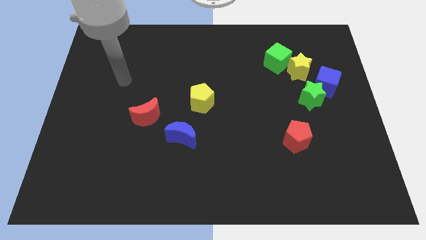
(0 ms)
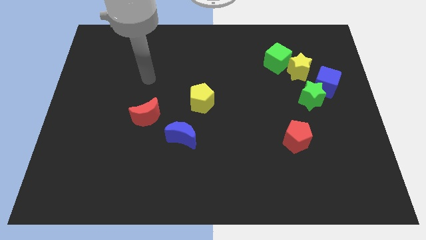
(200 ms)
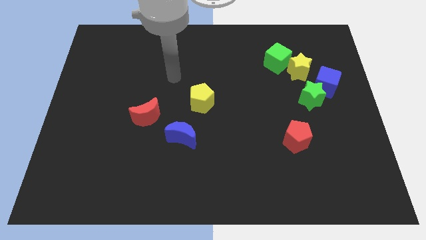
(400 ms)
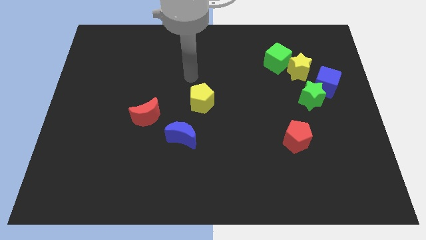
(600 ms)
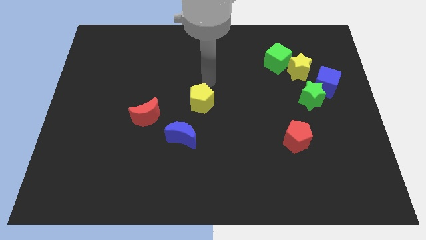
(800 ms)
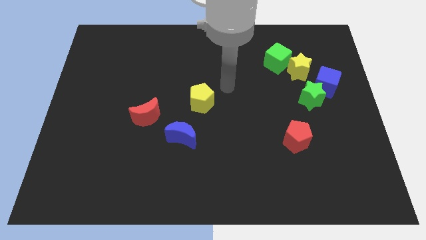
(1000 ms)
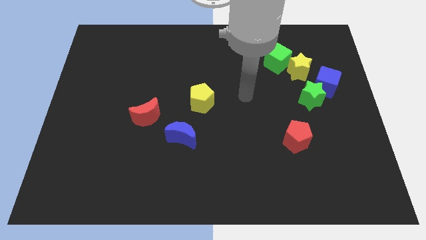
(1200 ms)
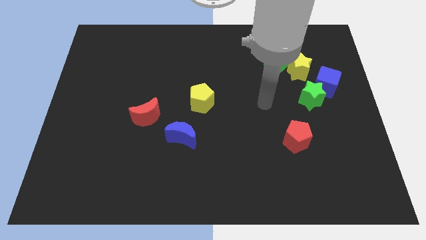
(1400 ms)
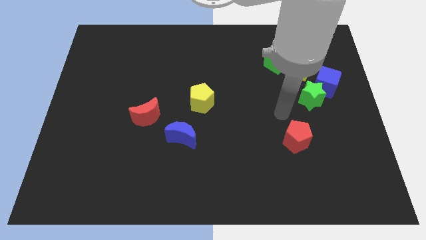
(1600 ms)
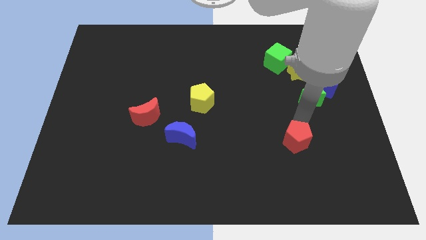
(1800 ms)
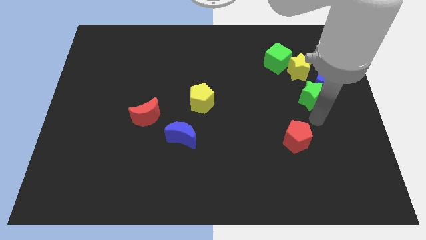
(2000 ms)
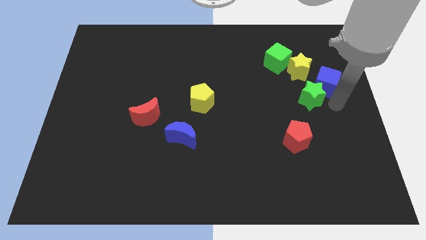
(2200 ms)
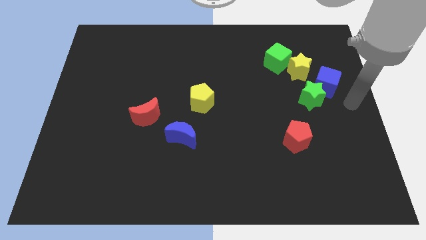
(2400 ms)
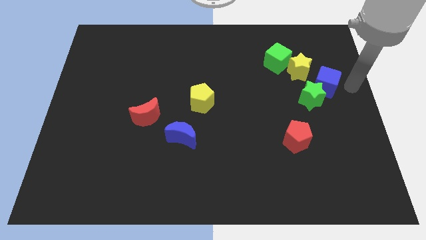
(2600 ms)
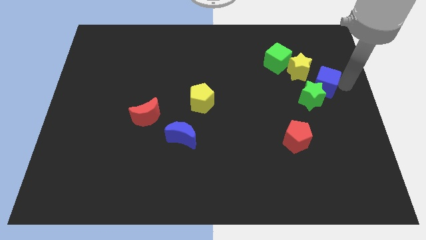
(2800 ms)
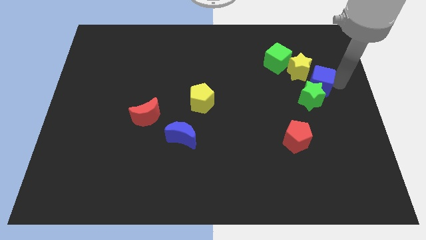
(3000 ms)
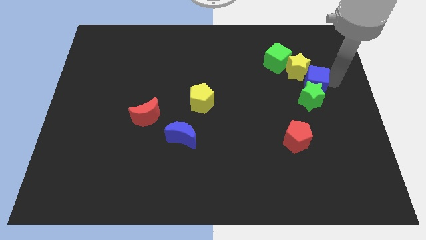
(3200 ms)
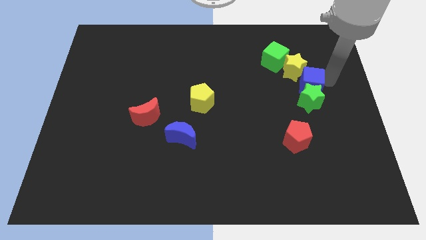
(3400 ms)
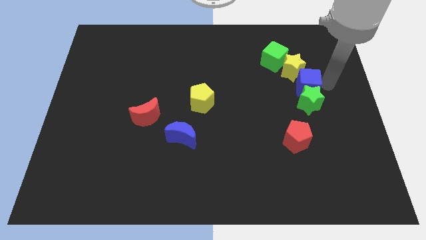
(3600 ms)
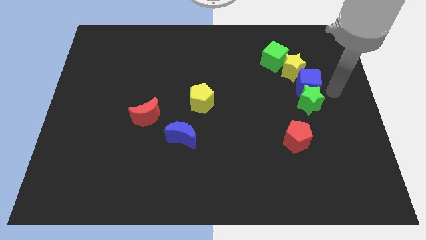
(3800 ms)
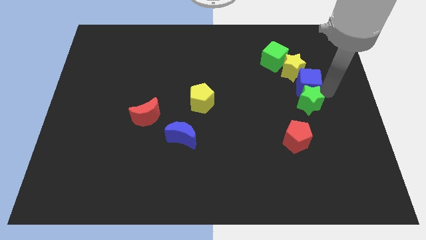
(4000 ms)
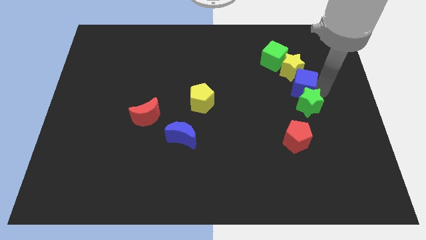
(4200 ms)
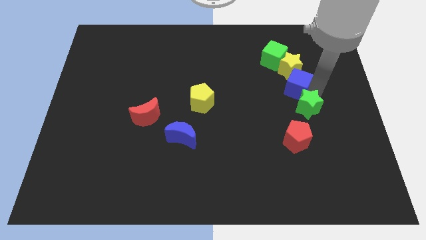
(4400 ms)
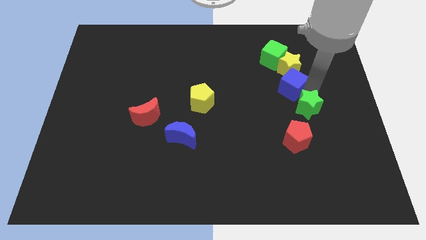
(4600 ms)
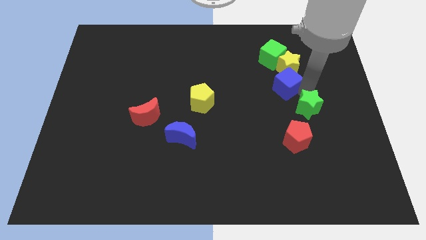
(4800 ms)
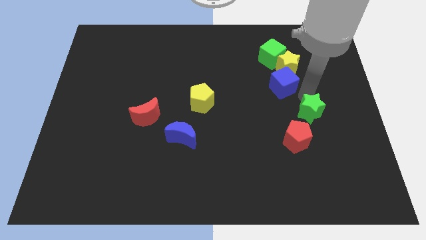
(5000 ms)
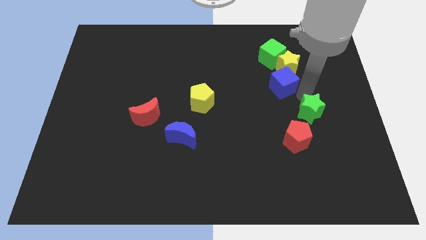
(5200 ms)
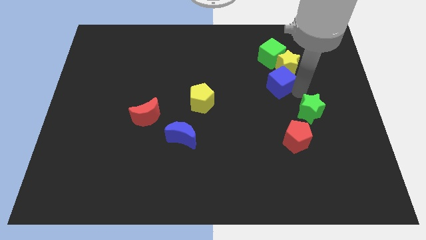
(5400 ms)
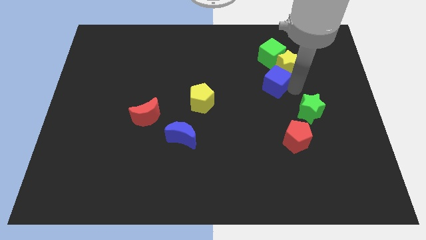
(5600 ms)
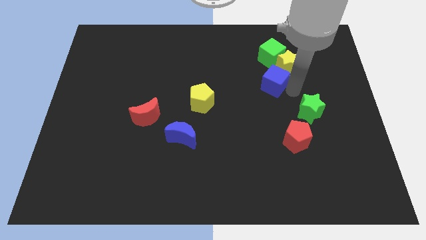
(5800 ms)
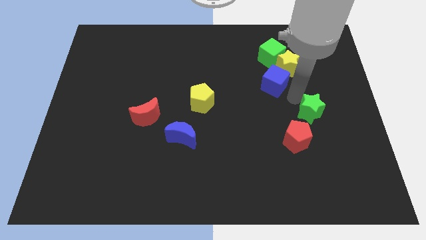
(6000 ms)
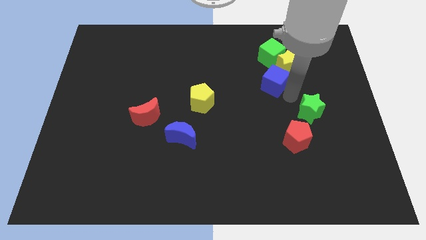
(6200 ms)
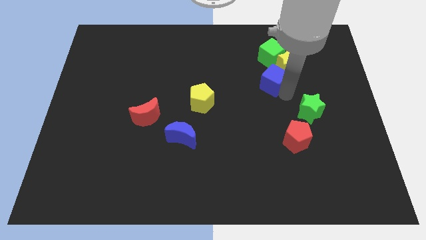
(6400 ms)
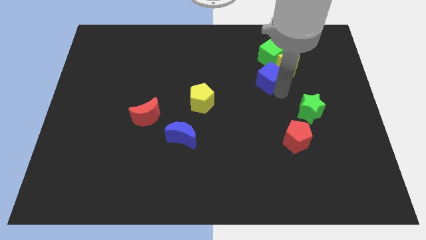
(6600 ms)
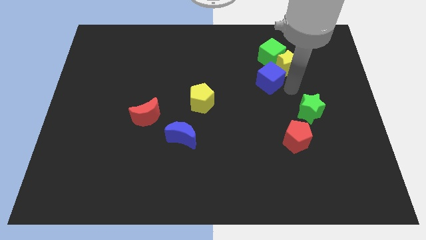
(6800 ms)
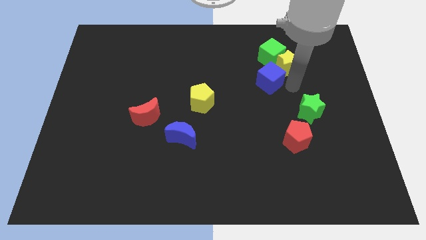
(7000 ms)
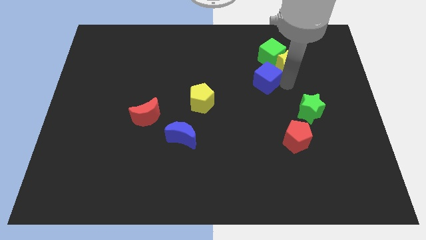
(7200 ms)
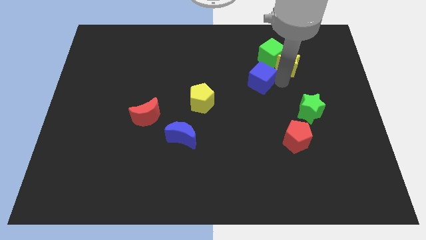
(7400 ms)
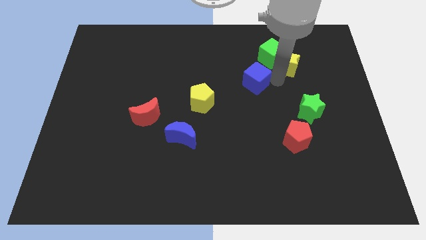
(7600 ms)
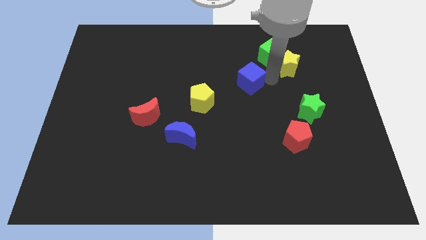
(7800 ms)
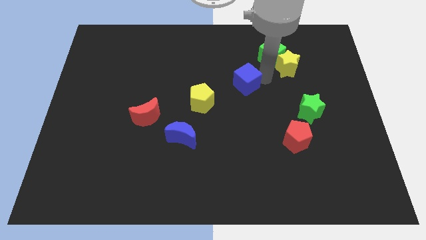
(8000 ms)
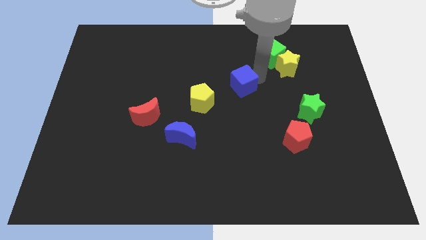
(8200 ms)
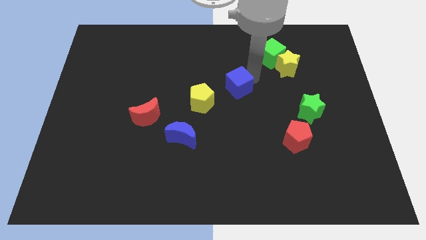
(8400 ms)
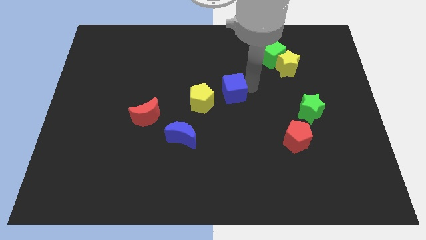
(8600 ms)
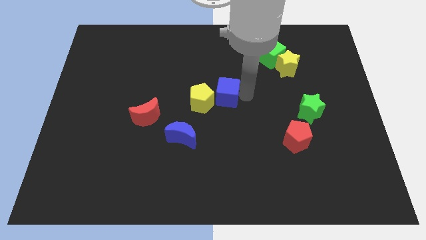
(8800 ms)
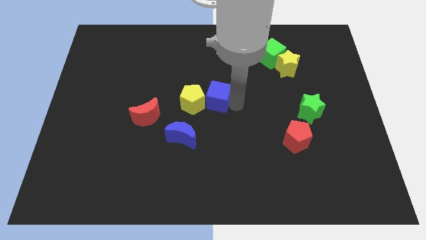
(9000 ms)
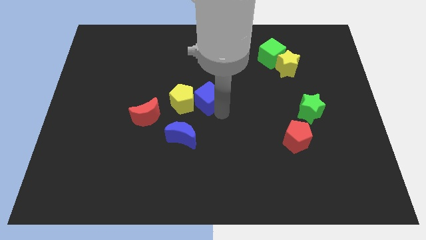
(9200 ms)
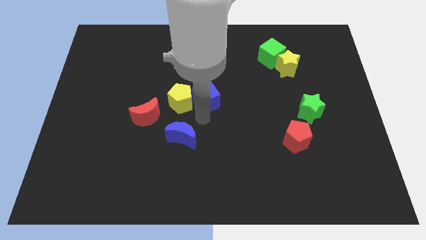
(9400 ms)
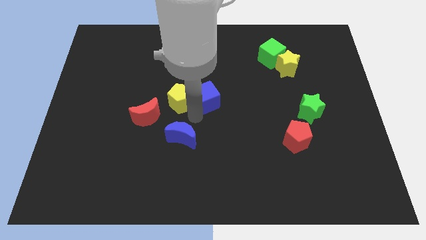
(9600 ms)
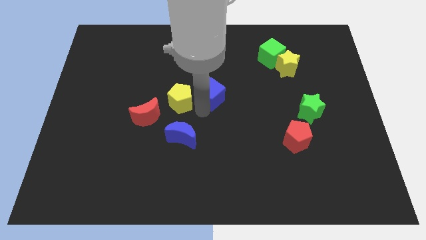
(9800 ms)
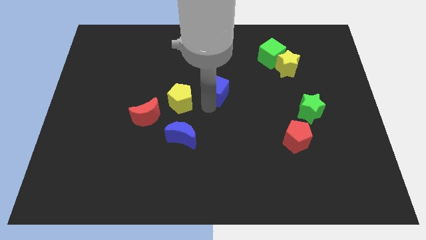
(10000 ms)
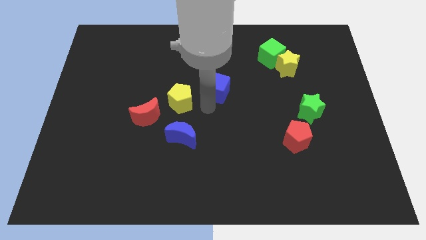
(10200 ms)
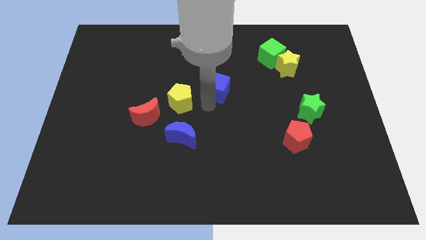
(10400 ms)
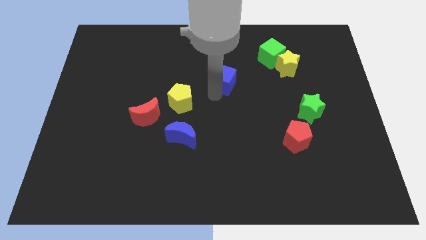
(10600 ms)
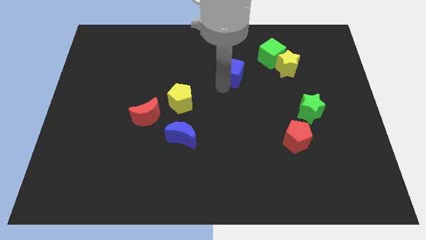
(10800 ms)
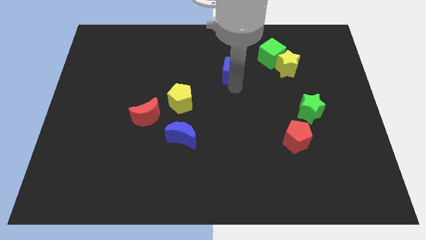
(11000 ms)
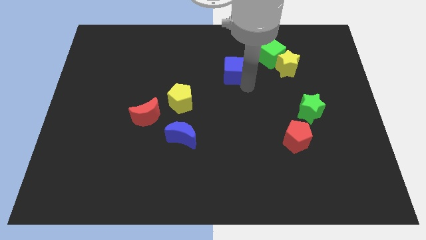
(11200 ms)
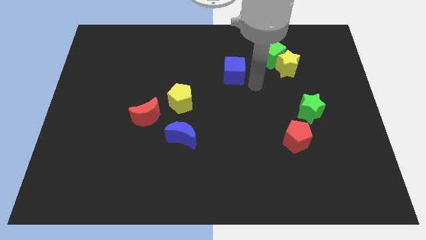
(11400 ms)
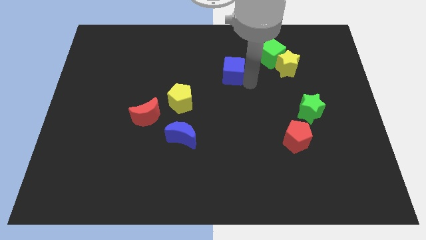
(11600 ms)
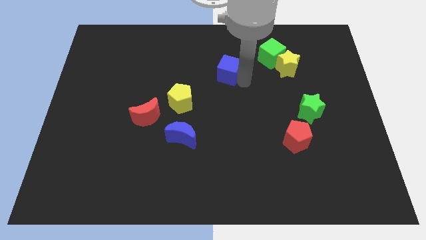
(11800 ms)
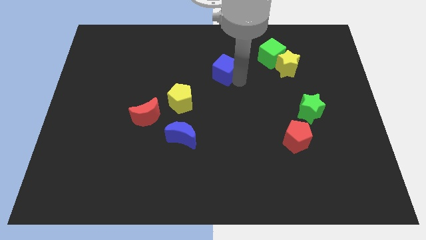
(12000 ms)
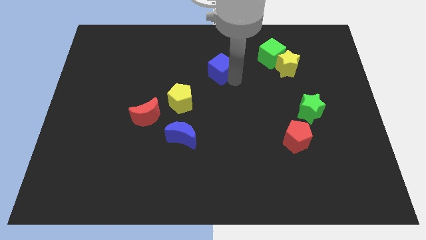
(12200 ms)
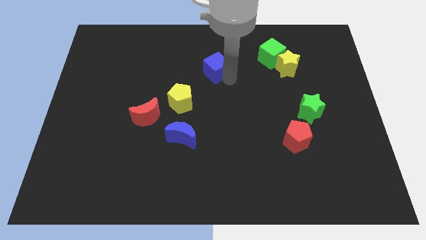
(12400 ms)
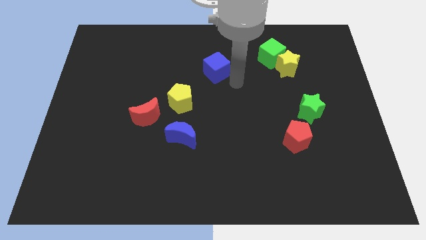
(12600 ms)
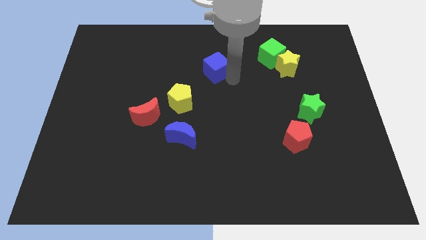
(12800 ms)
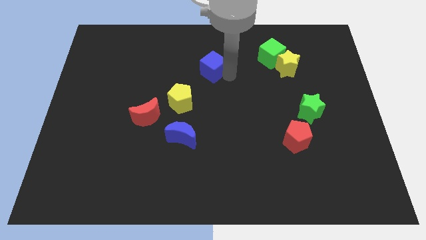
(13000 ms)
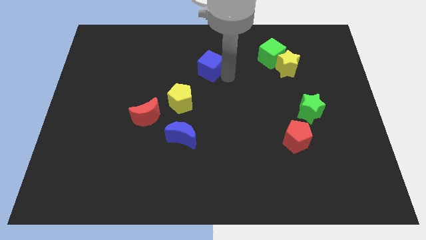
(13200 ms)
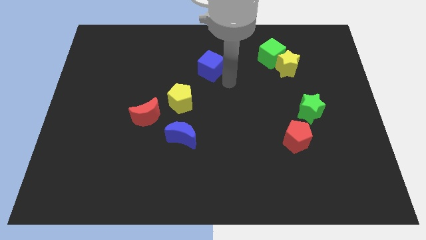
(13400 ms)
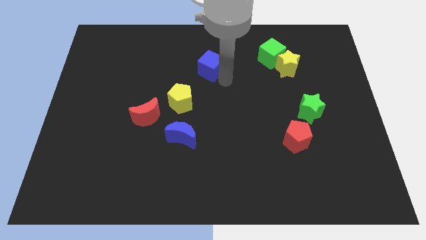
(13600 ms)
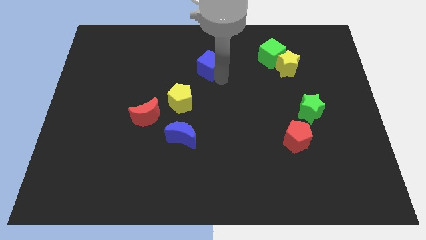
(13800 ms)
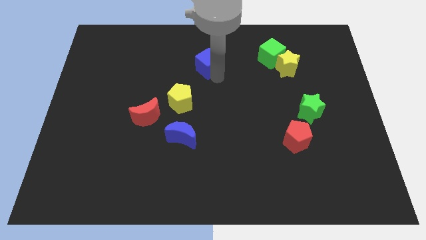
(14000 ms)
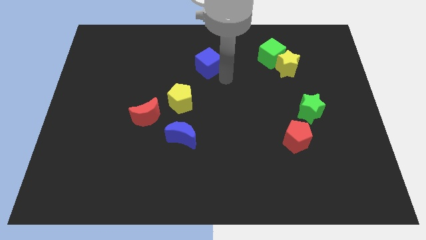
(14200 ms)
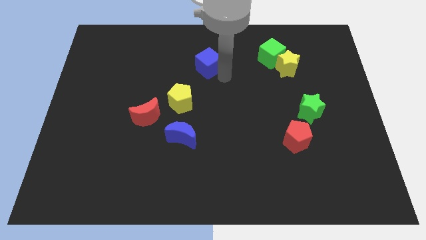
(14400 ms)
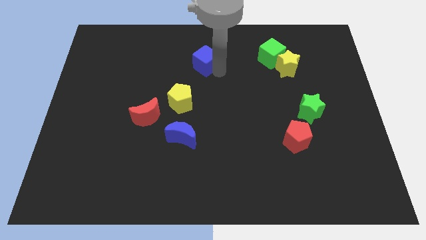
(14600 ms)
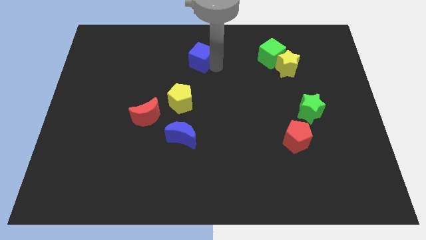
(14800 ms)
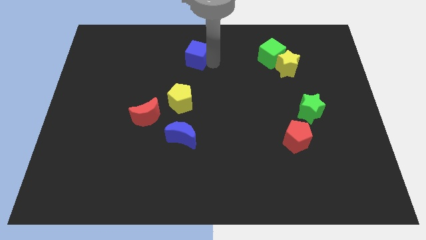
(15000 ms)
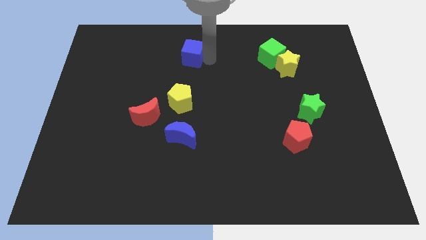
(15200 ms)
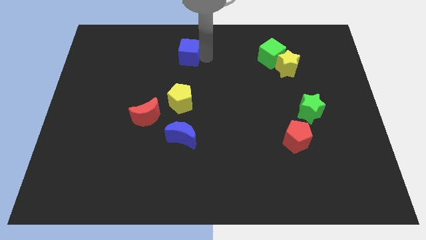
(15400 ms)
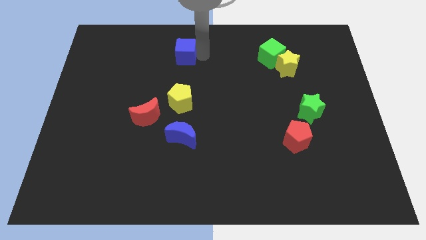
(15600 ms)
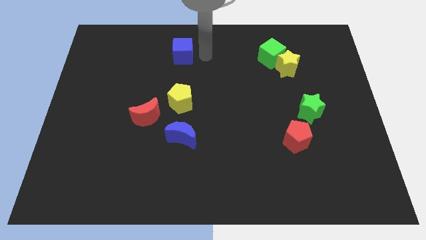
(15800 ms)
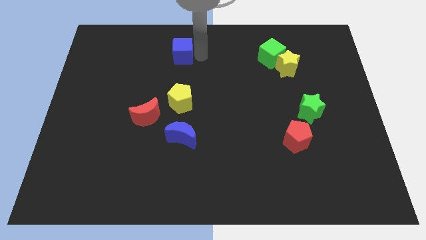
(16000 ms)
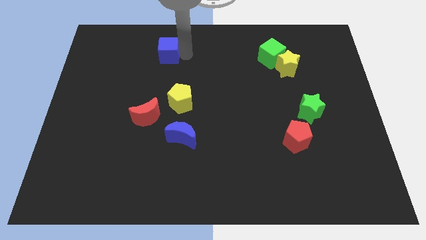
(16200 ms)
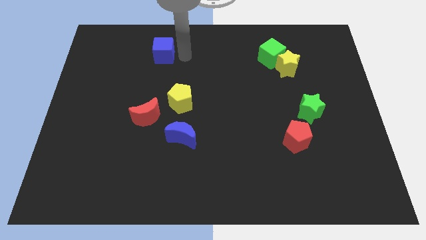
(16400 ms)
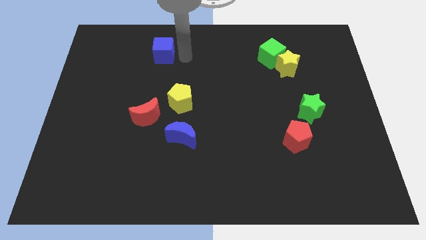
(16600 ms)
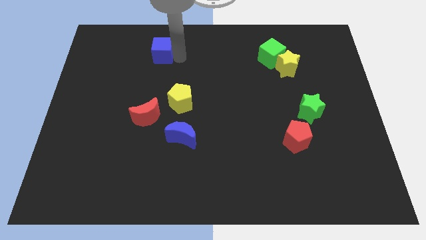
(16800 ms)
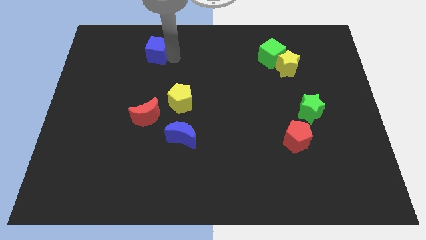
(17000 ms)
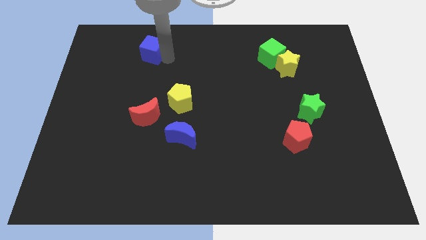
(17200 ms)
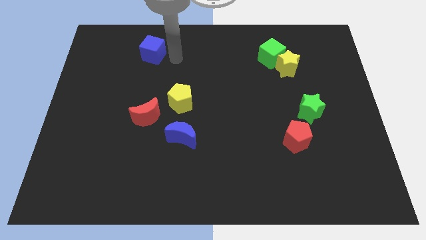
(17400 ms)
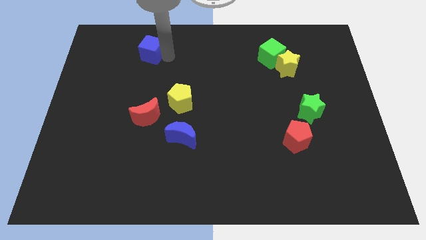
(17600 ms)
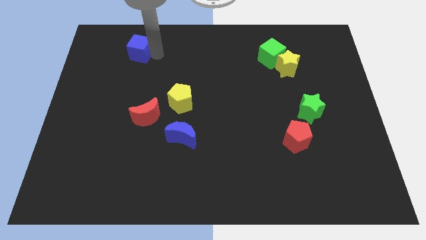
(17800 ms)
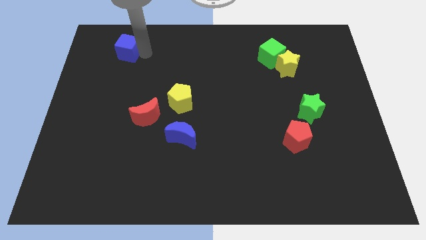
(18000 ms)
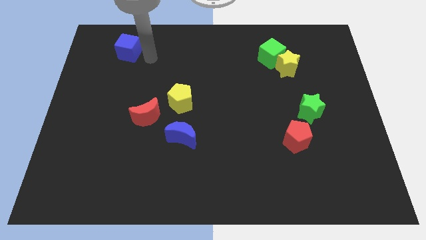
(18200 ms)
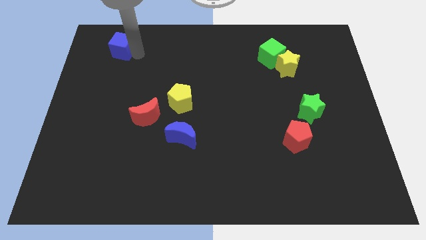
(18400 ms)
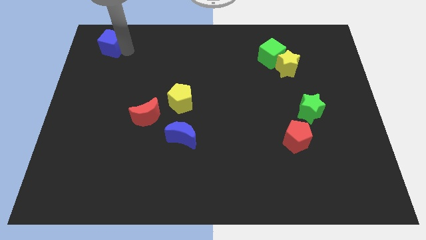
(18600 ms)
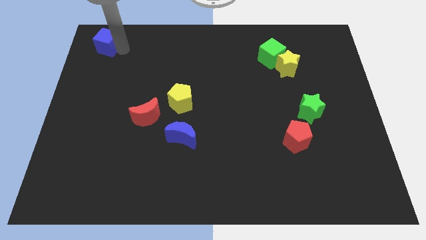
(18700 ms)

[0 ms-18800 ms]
push the blue cube to the top left corner
